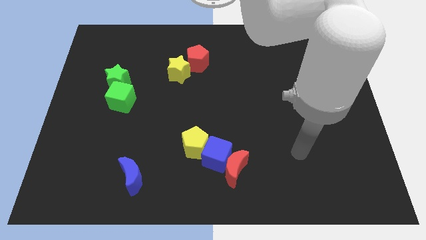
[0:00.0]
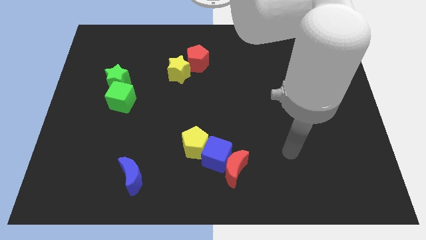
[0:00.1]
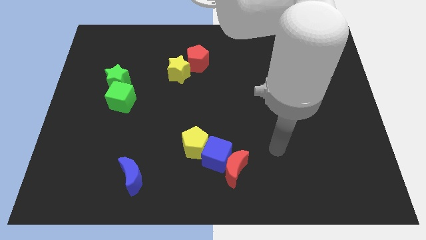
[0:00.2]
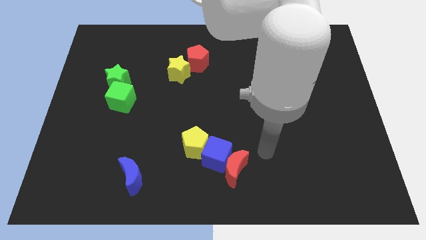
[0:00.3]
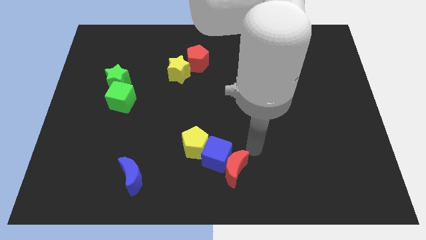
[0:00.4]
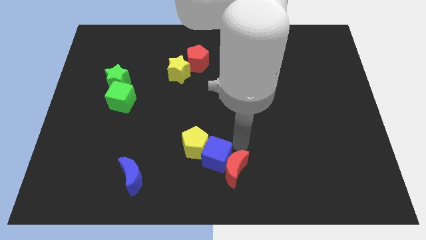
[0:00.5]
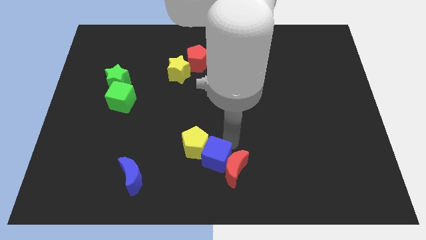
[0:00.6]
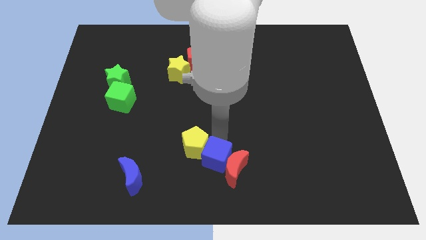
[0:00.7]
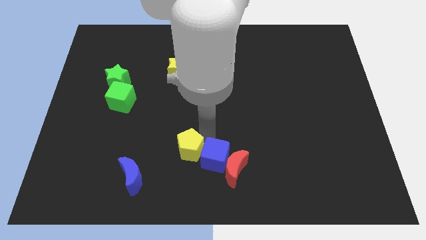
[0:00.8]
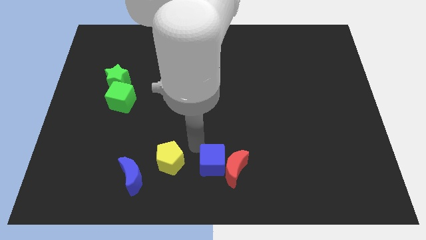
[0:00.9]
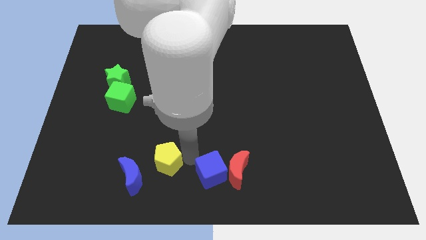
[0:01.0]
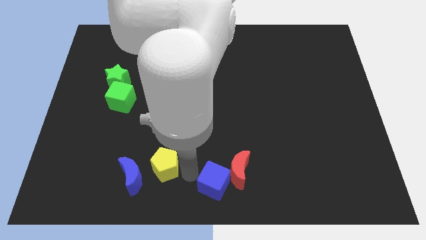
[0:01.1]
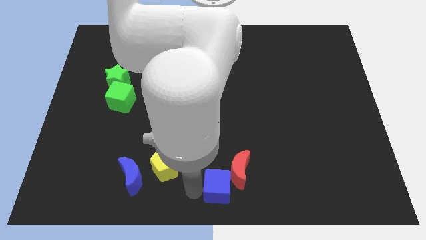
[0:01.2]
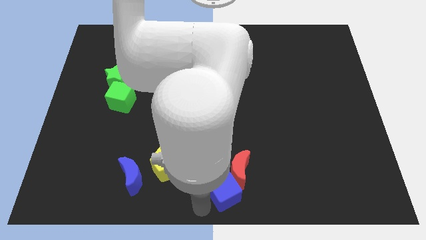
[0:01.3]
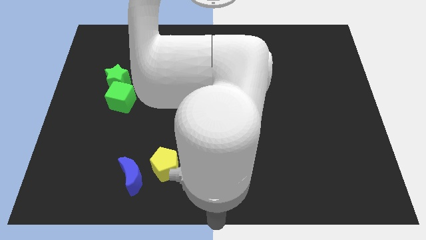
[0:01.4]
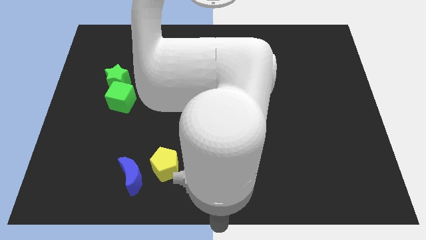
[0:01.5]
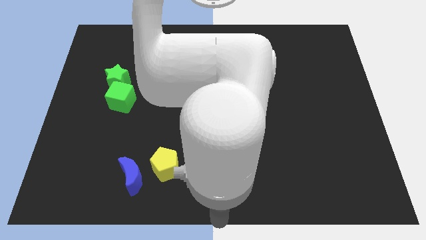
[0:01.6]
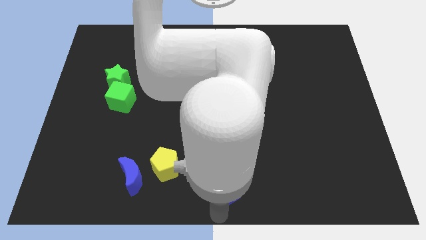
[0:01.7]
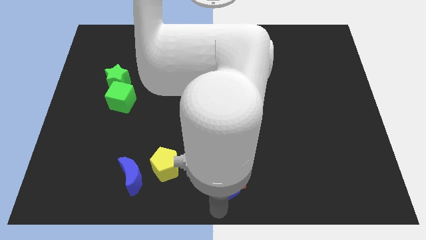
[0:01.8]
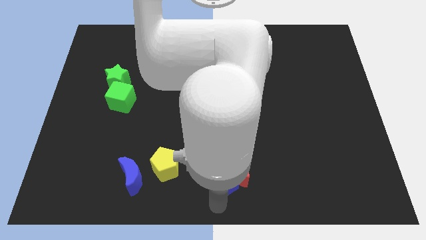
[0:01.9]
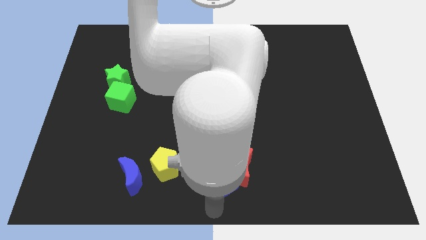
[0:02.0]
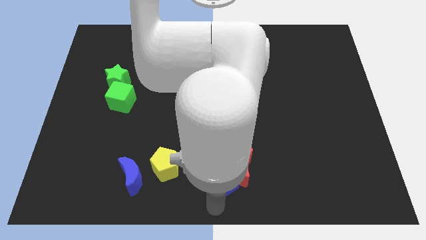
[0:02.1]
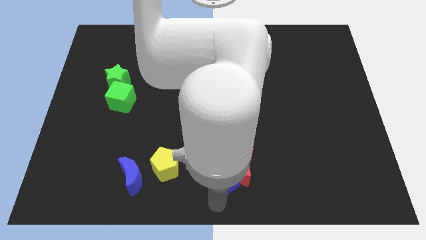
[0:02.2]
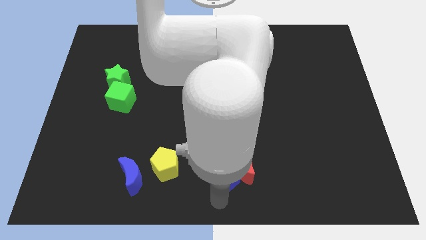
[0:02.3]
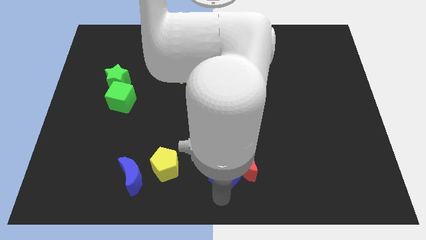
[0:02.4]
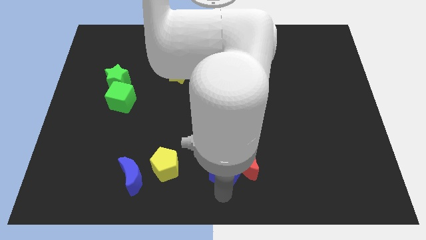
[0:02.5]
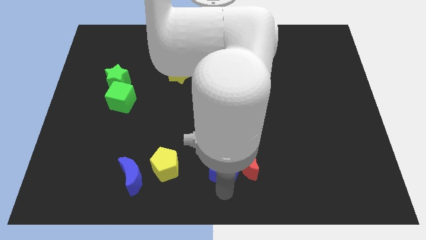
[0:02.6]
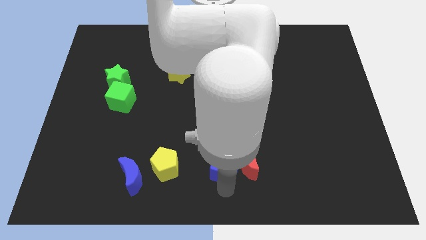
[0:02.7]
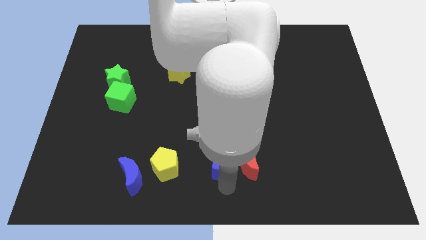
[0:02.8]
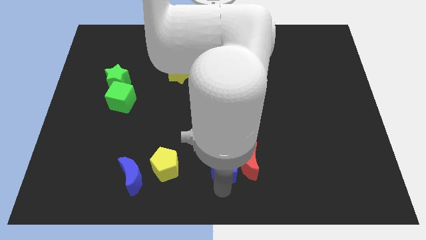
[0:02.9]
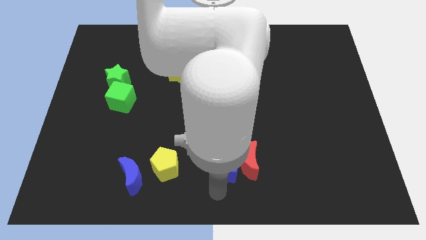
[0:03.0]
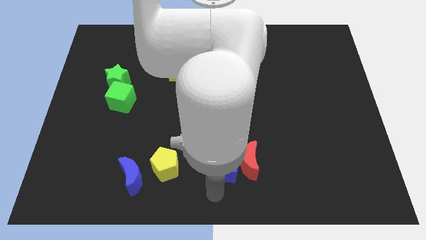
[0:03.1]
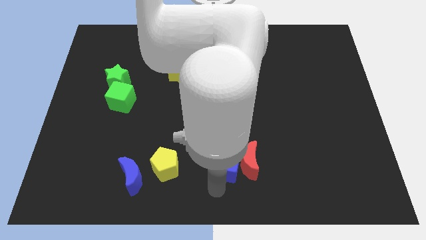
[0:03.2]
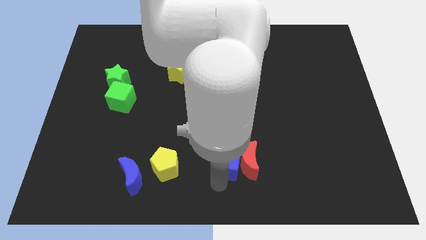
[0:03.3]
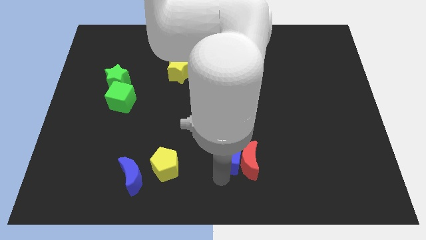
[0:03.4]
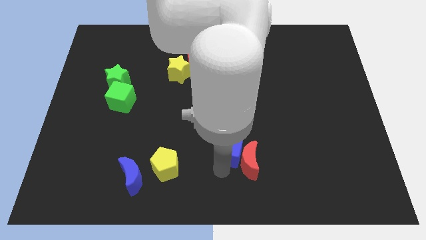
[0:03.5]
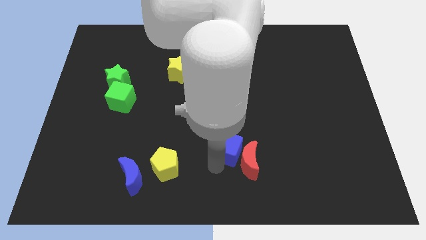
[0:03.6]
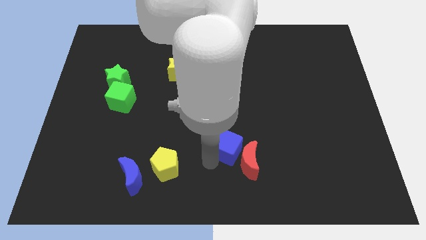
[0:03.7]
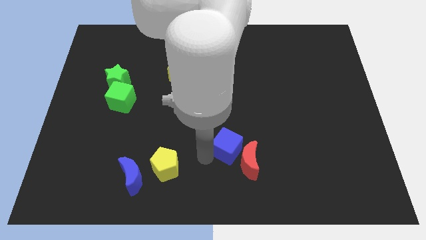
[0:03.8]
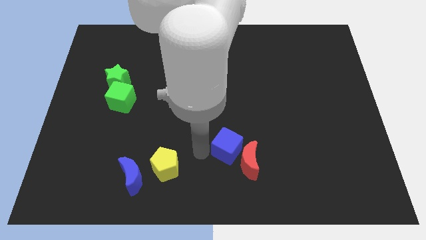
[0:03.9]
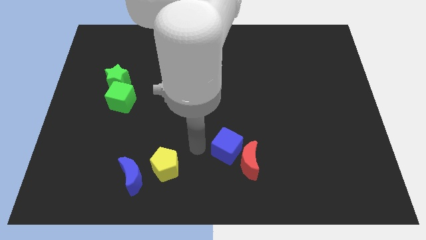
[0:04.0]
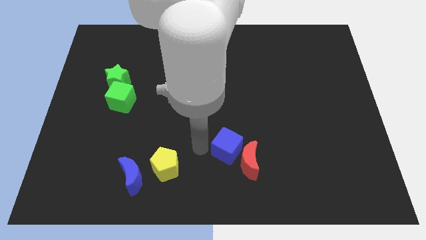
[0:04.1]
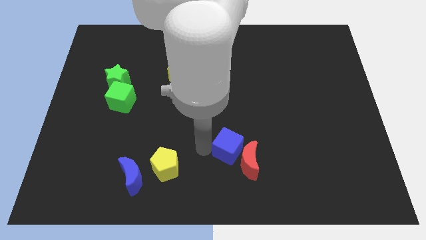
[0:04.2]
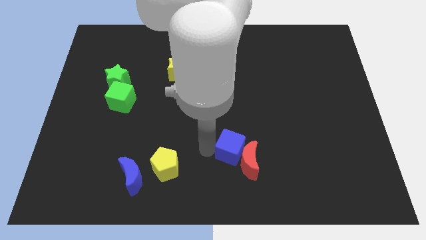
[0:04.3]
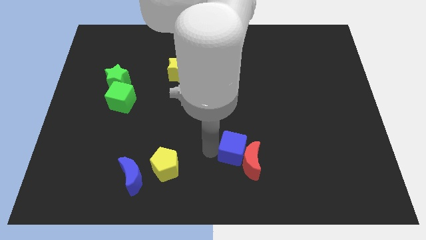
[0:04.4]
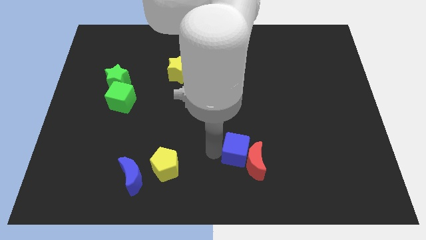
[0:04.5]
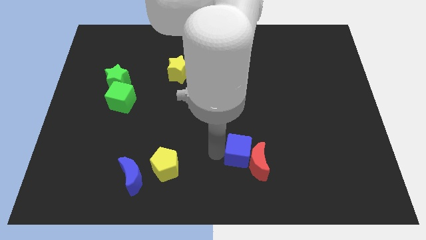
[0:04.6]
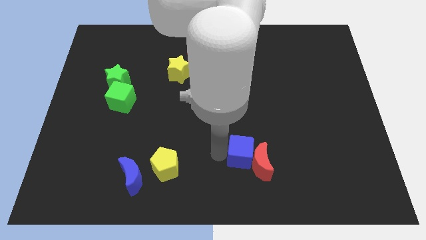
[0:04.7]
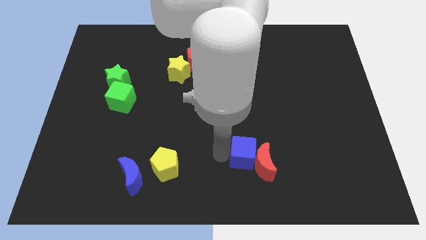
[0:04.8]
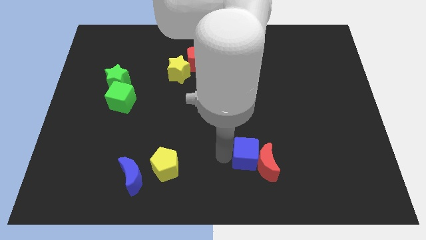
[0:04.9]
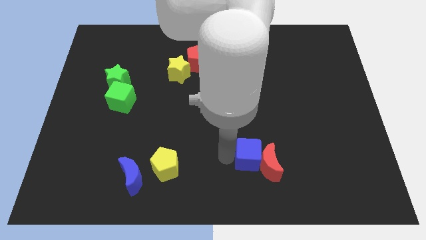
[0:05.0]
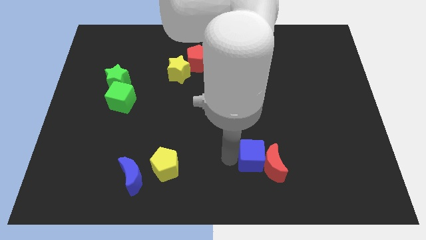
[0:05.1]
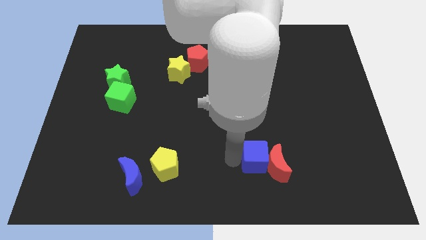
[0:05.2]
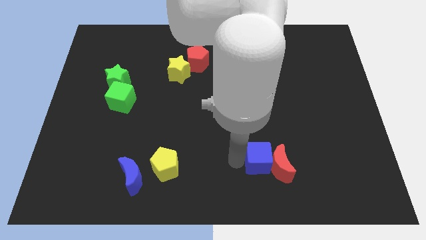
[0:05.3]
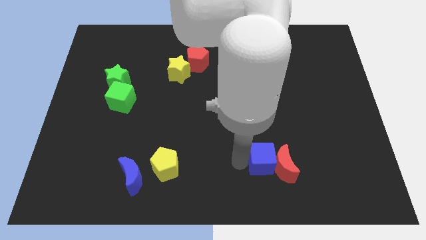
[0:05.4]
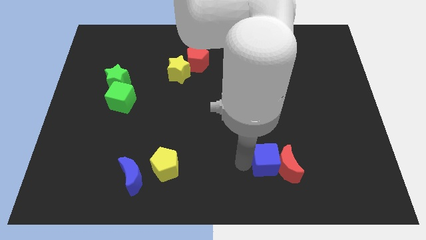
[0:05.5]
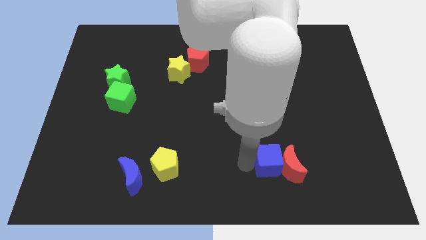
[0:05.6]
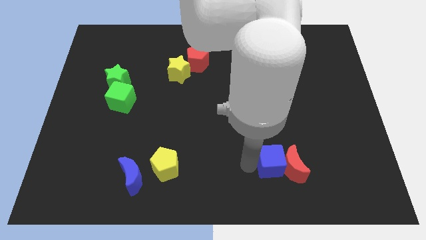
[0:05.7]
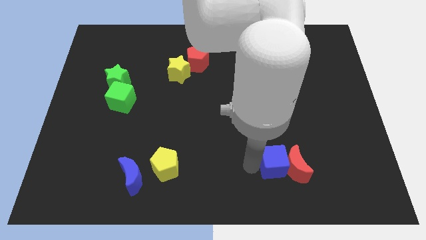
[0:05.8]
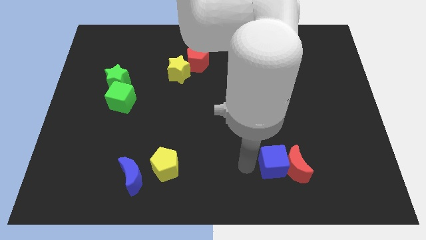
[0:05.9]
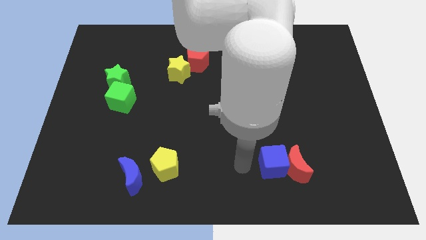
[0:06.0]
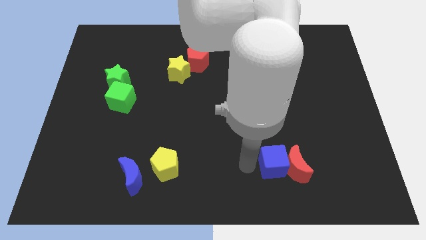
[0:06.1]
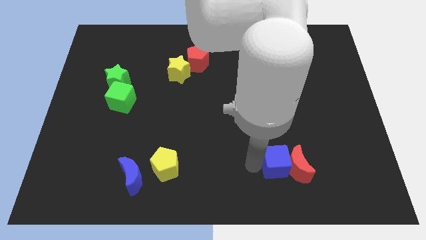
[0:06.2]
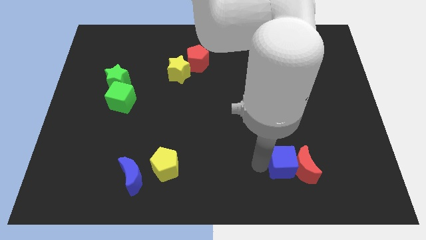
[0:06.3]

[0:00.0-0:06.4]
pull the blue cube apart from the red moon and yellow pentagon

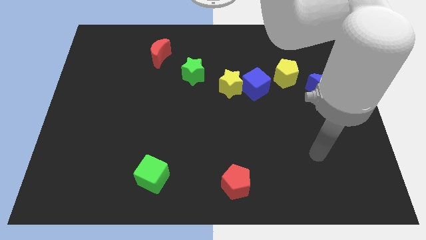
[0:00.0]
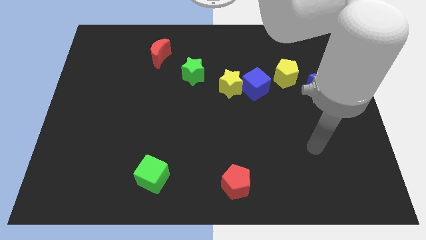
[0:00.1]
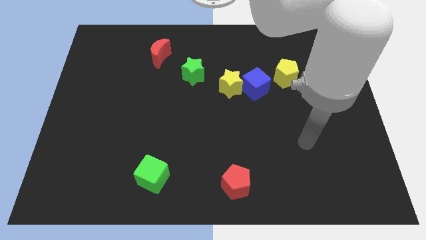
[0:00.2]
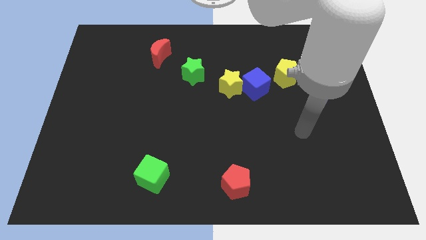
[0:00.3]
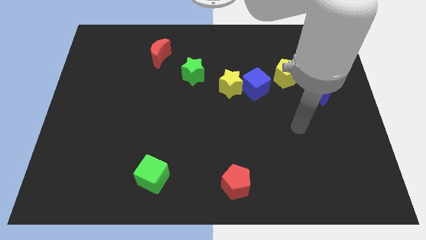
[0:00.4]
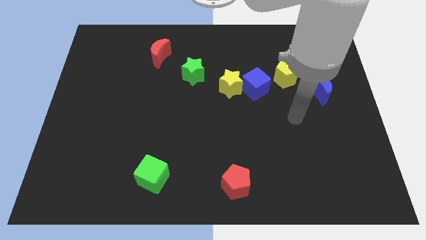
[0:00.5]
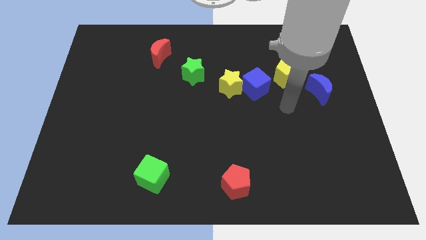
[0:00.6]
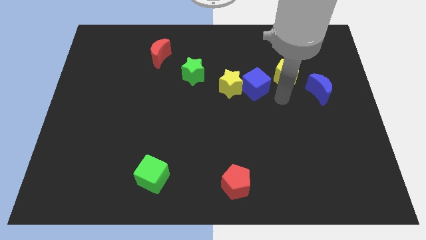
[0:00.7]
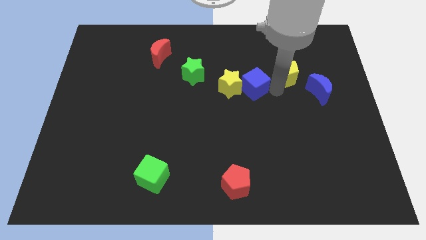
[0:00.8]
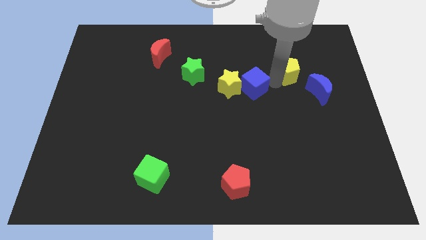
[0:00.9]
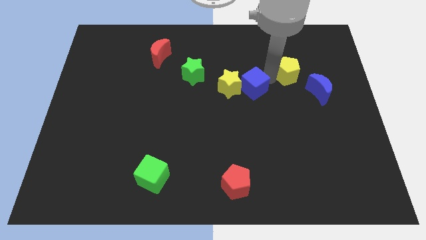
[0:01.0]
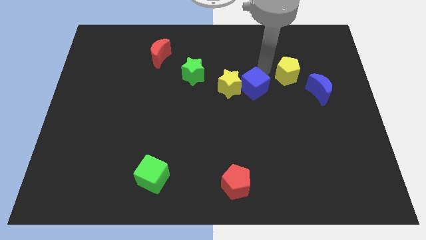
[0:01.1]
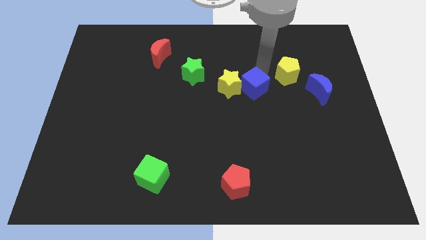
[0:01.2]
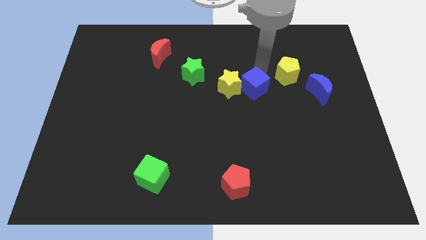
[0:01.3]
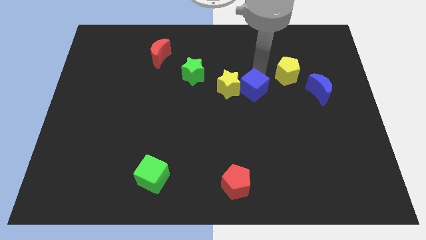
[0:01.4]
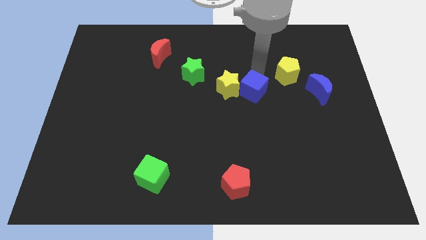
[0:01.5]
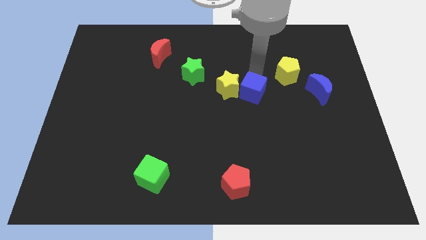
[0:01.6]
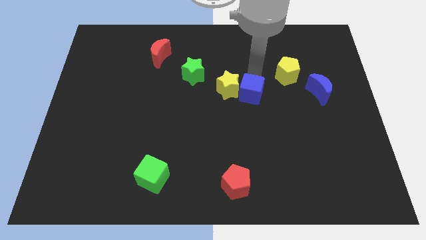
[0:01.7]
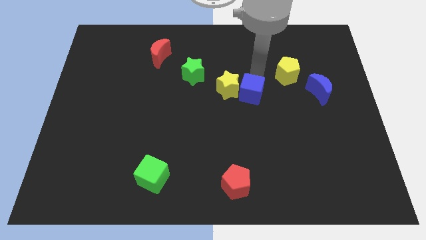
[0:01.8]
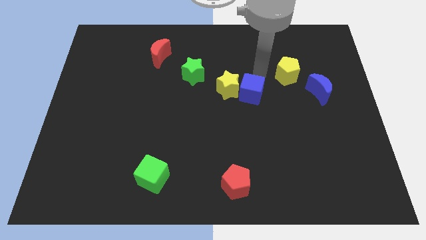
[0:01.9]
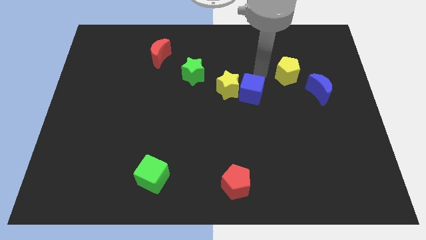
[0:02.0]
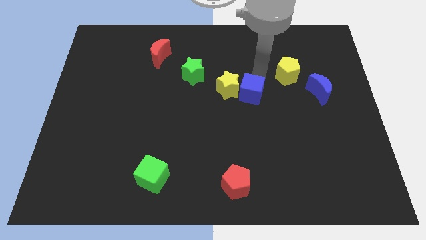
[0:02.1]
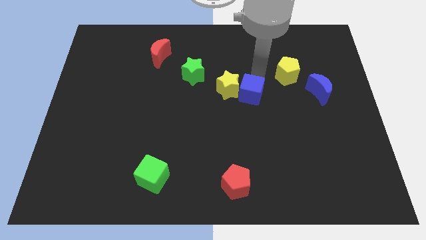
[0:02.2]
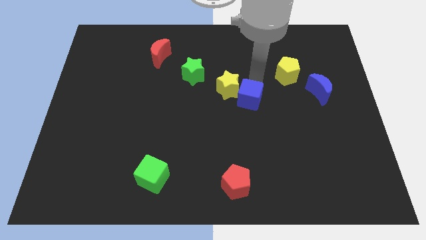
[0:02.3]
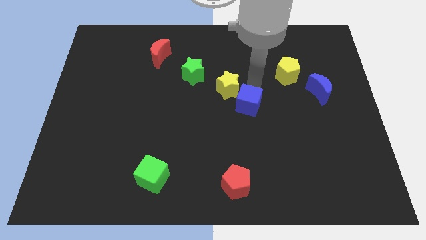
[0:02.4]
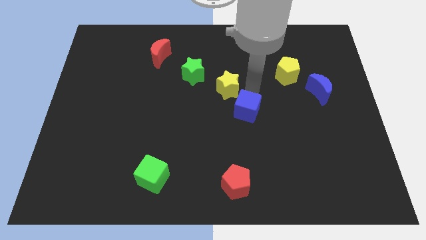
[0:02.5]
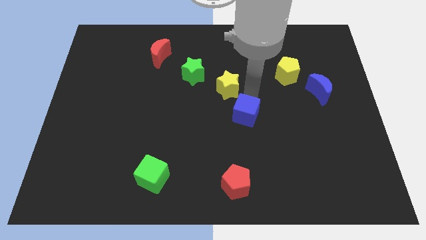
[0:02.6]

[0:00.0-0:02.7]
pull the blue cube apart from the yellow star and yellow pentagon

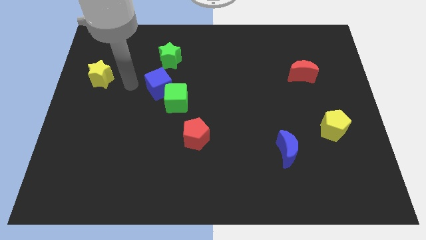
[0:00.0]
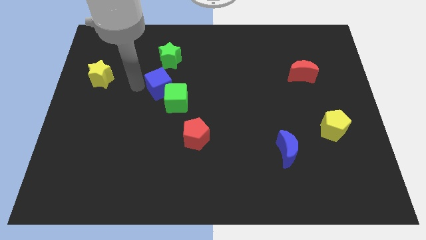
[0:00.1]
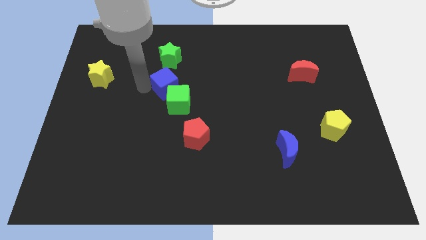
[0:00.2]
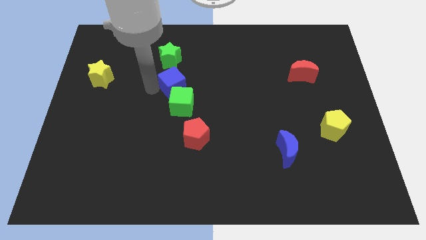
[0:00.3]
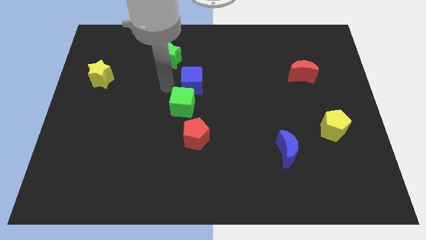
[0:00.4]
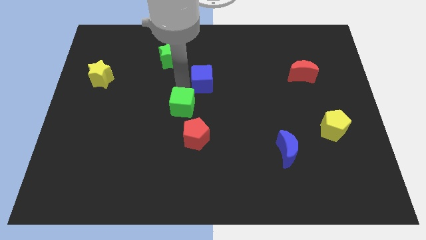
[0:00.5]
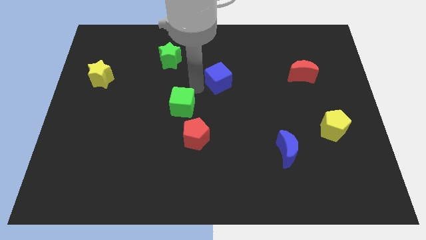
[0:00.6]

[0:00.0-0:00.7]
move the green cube away from the blue cube
